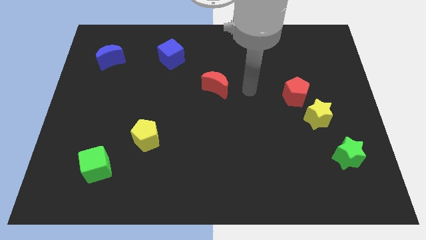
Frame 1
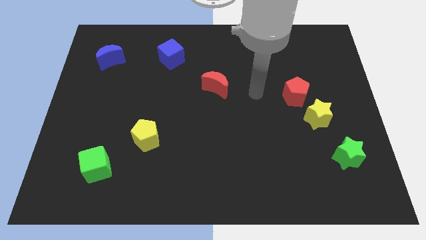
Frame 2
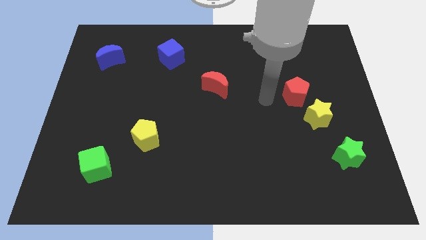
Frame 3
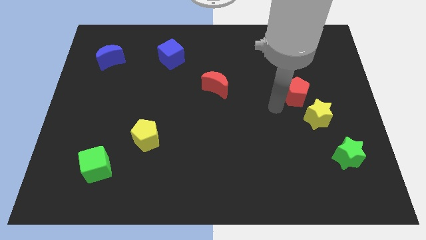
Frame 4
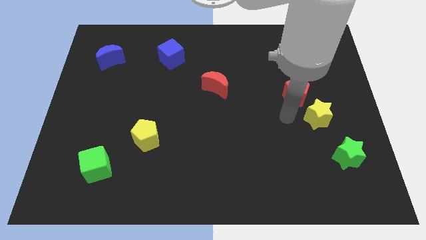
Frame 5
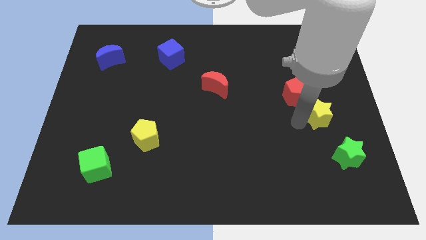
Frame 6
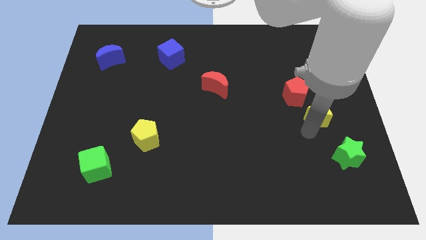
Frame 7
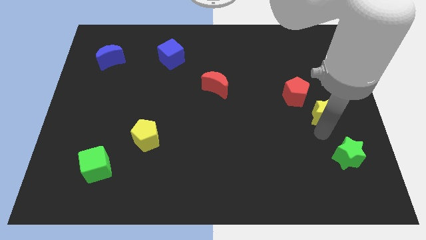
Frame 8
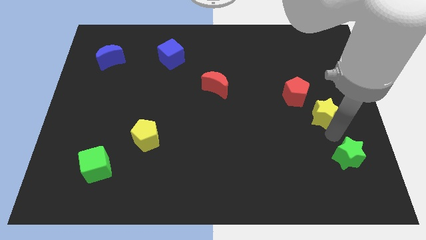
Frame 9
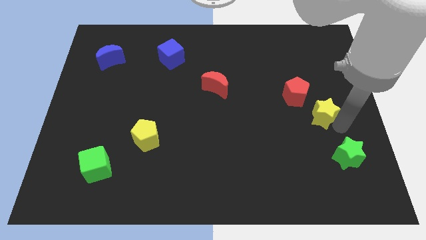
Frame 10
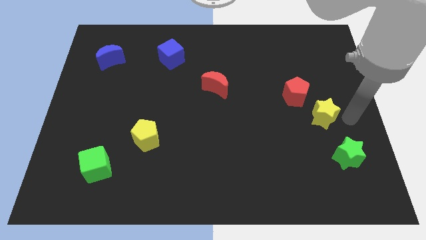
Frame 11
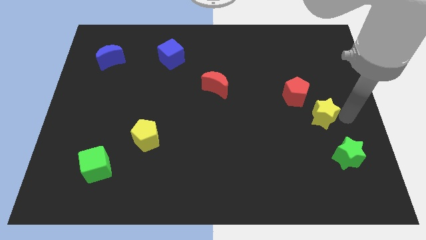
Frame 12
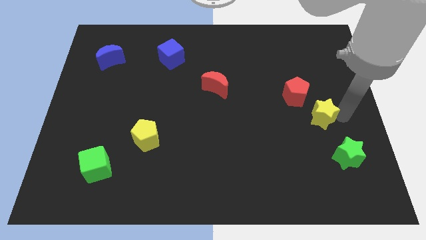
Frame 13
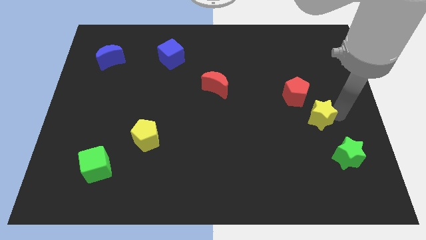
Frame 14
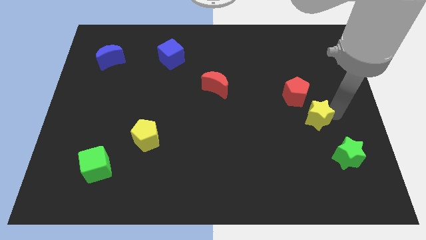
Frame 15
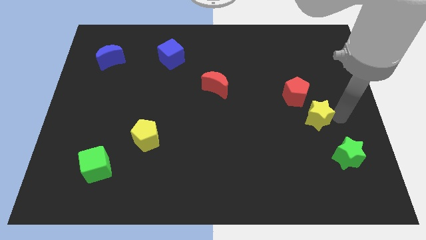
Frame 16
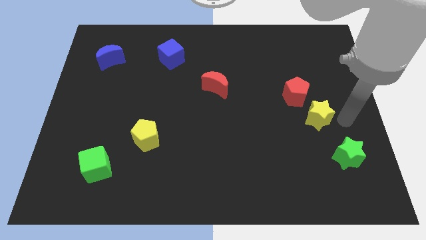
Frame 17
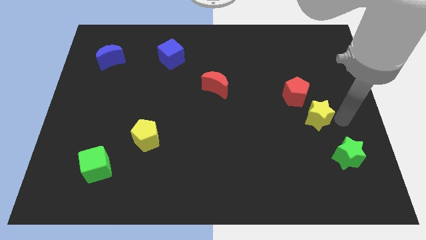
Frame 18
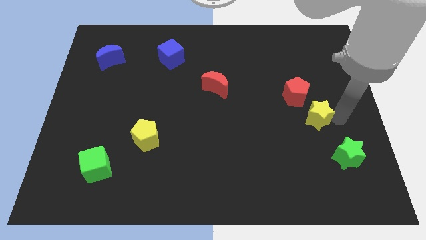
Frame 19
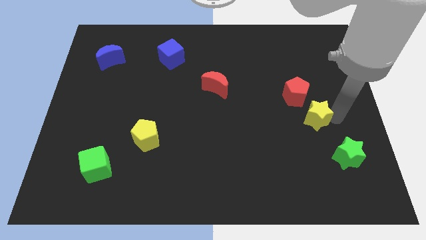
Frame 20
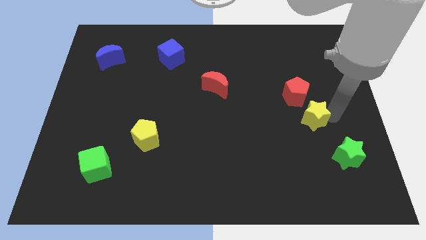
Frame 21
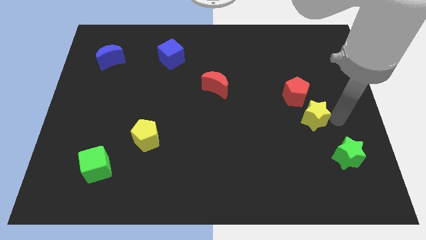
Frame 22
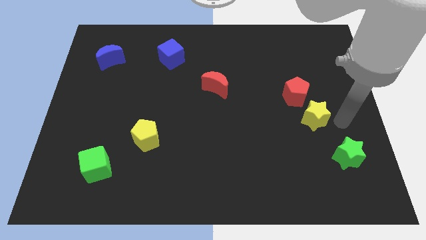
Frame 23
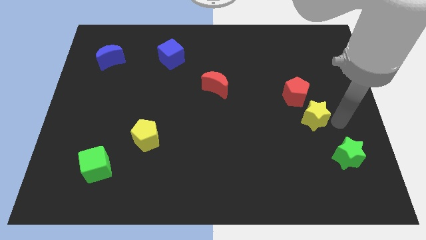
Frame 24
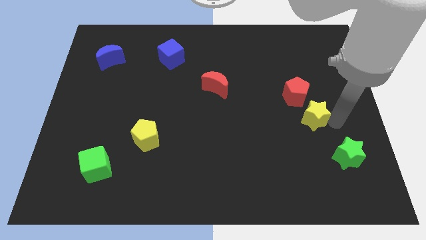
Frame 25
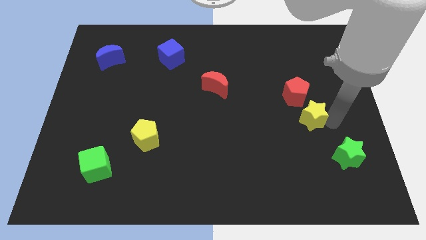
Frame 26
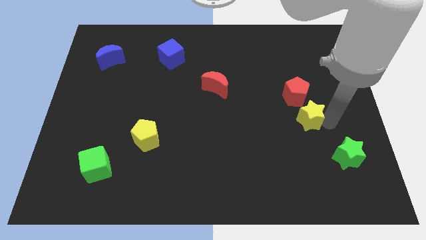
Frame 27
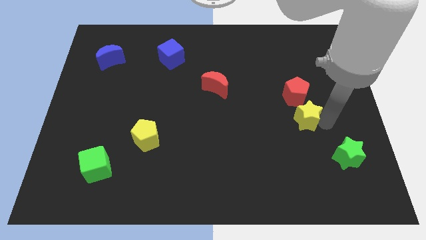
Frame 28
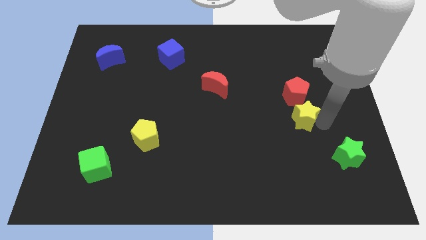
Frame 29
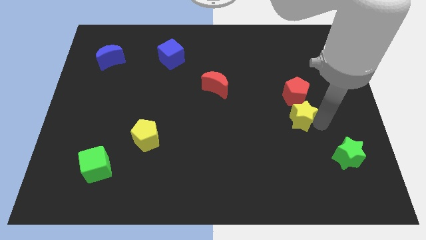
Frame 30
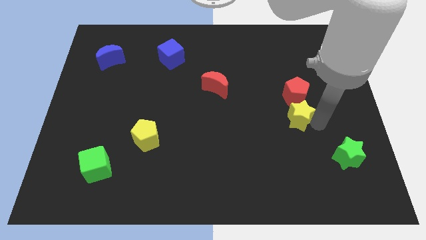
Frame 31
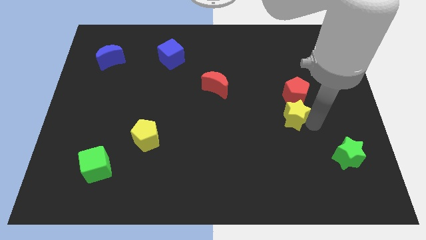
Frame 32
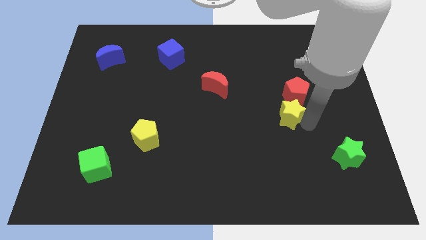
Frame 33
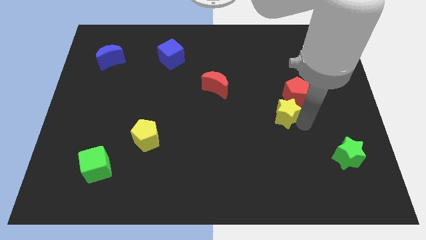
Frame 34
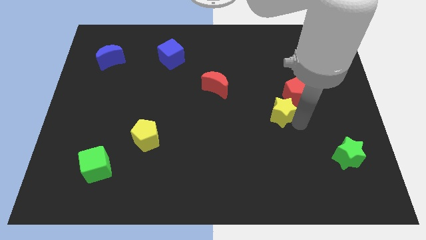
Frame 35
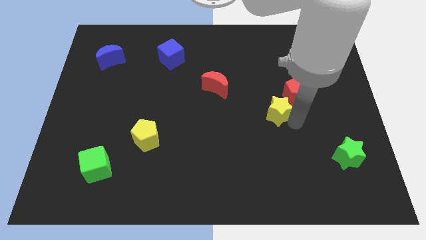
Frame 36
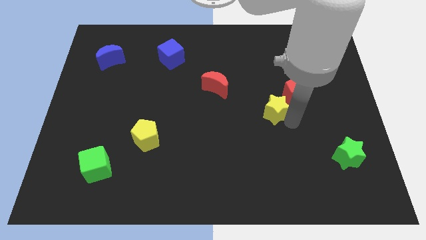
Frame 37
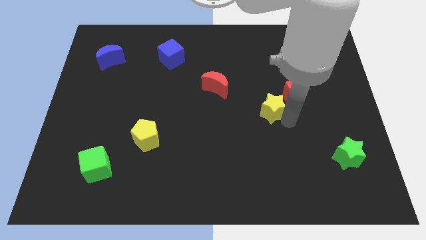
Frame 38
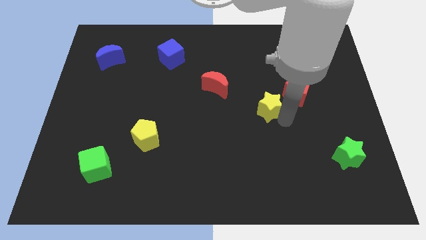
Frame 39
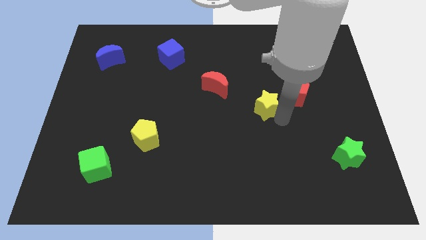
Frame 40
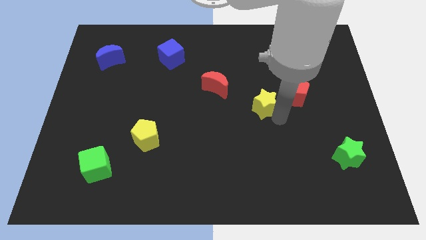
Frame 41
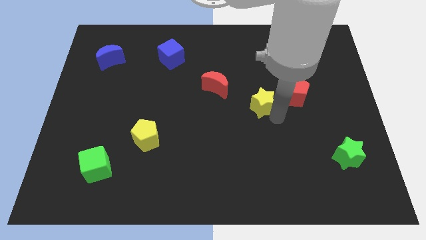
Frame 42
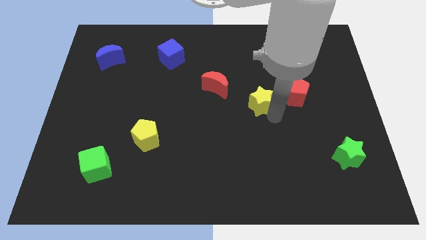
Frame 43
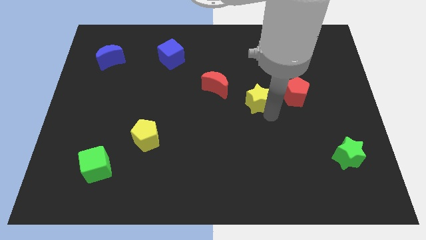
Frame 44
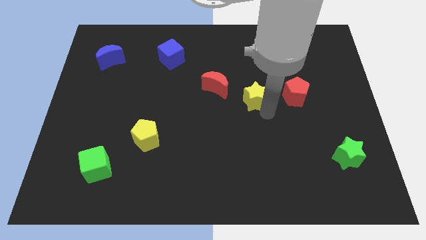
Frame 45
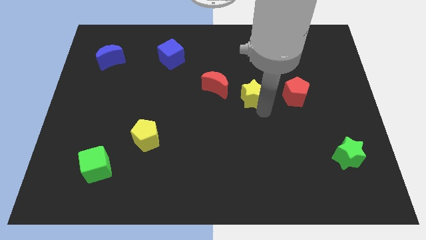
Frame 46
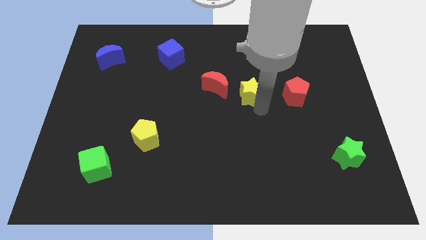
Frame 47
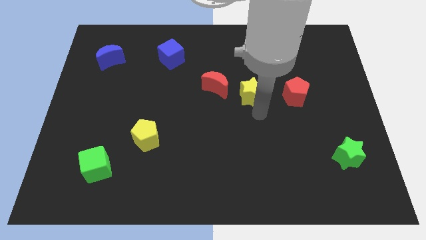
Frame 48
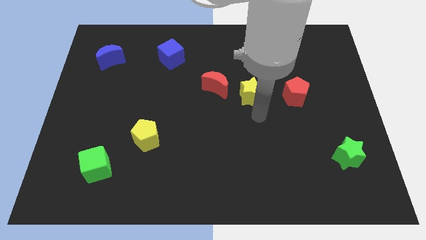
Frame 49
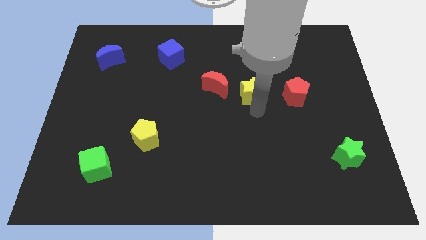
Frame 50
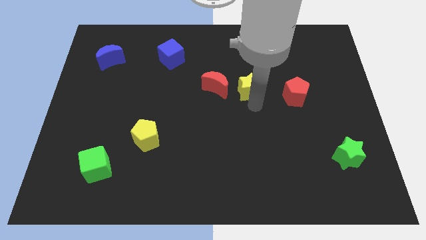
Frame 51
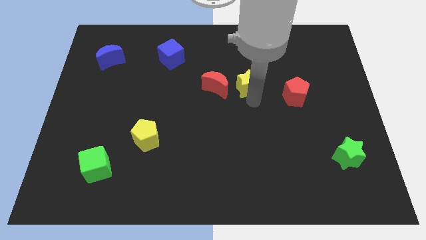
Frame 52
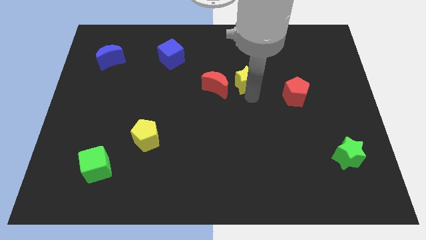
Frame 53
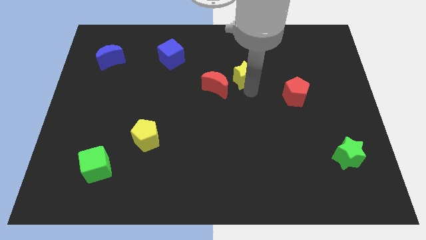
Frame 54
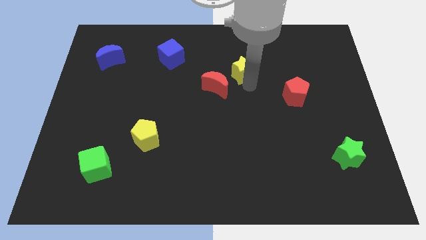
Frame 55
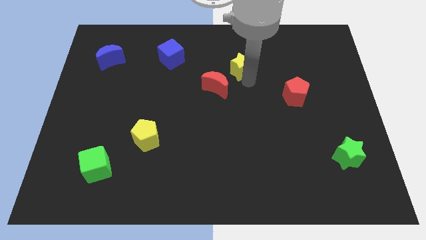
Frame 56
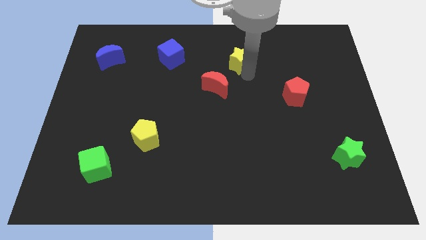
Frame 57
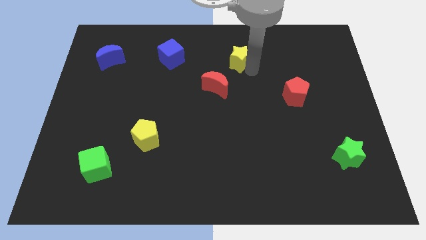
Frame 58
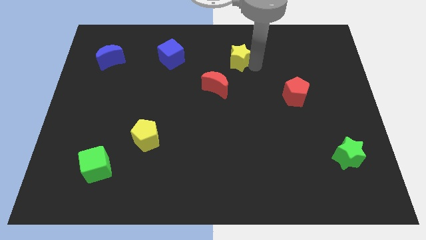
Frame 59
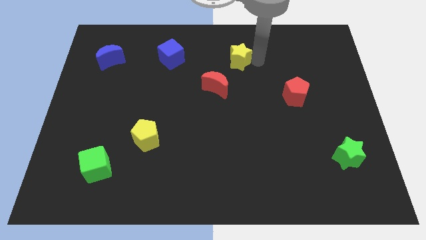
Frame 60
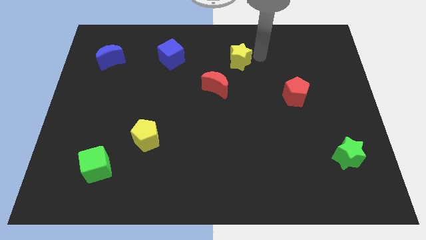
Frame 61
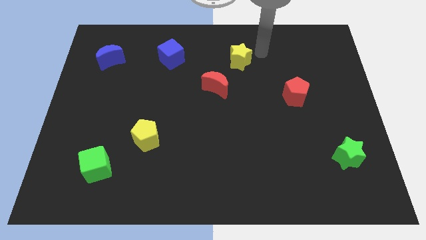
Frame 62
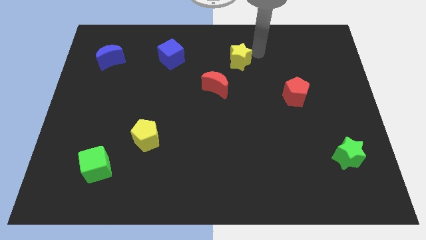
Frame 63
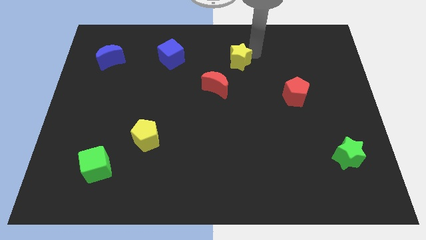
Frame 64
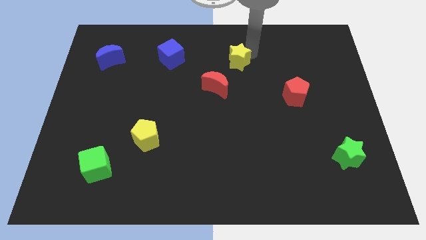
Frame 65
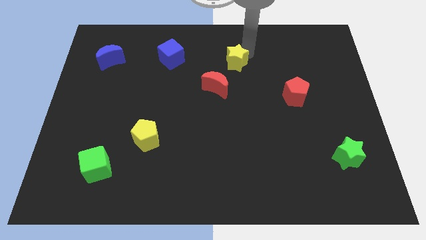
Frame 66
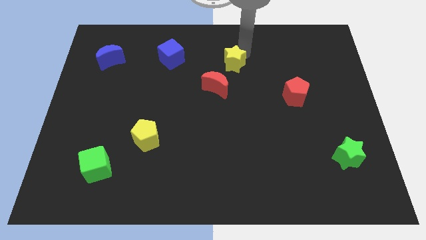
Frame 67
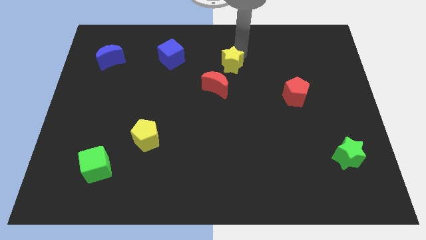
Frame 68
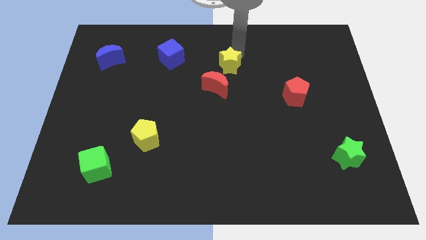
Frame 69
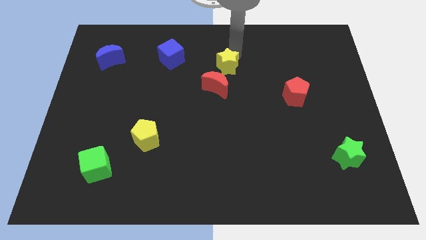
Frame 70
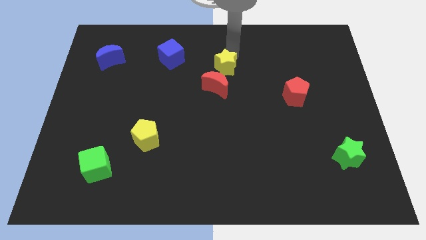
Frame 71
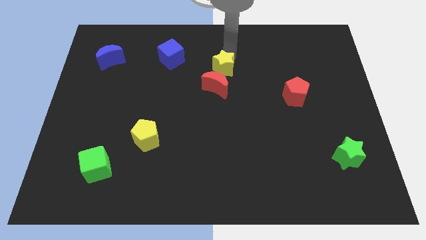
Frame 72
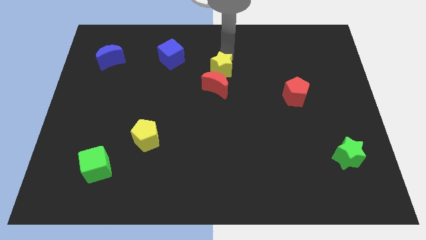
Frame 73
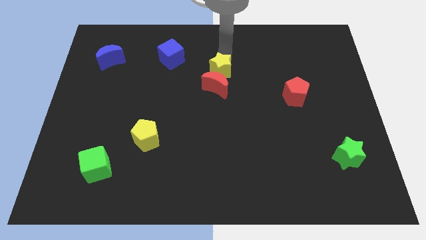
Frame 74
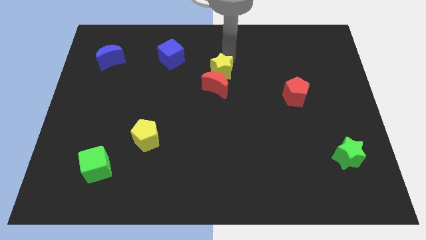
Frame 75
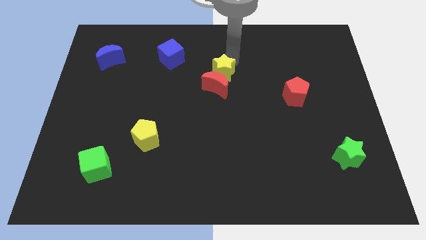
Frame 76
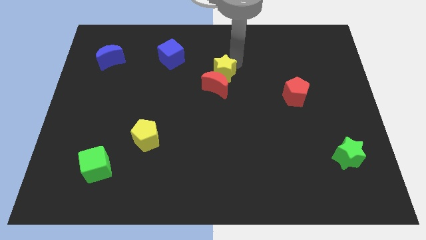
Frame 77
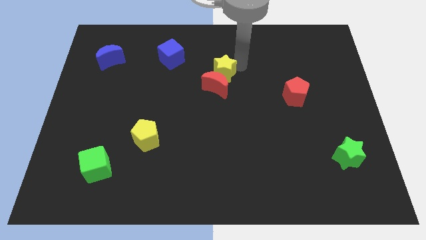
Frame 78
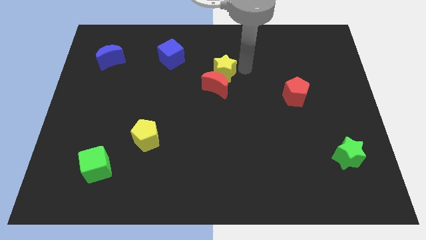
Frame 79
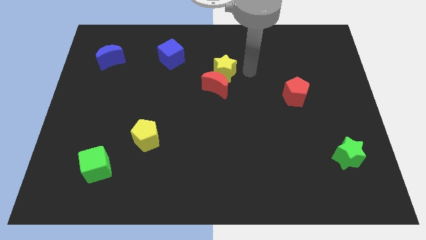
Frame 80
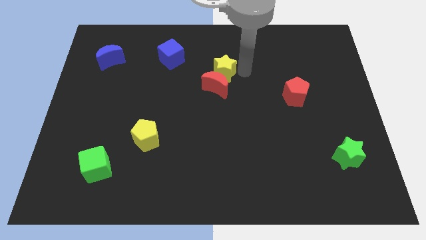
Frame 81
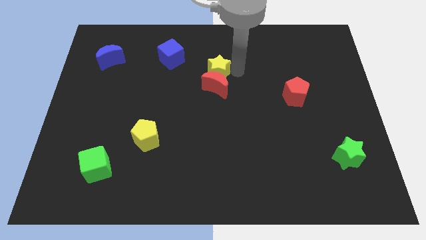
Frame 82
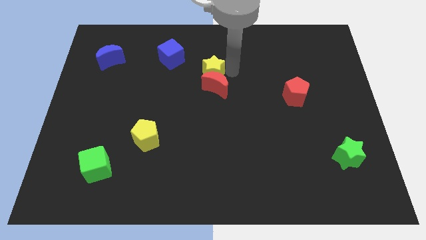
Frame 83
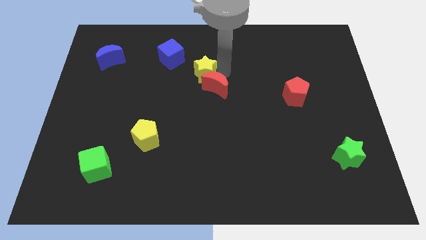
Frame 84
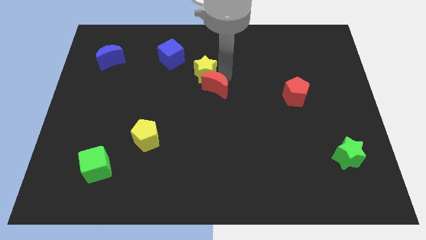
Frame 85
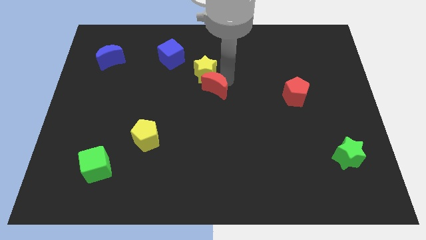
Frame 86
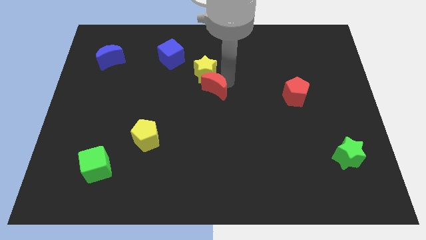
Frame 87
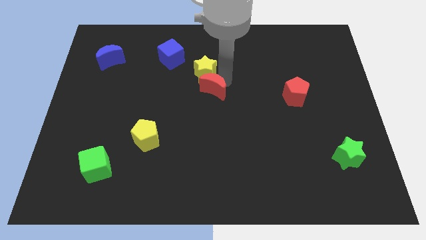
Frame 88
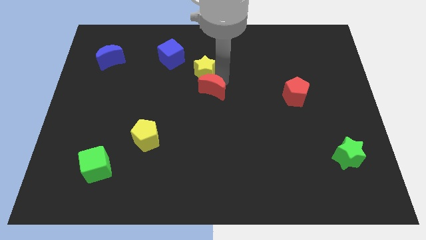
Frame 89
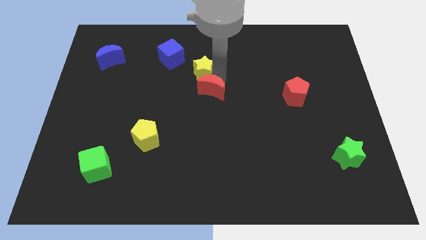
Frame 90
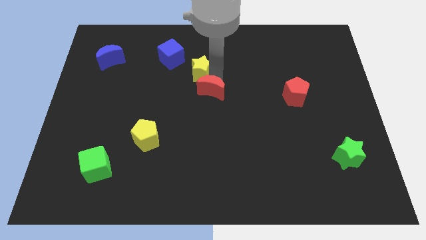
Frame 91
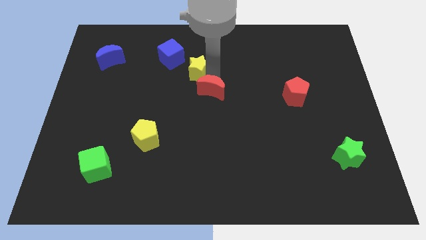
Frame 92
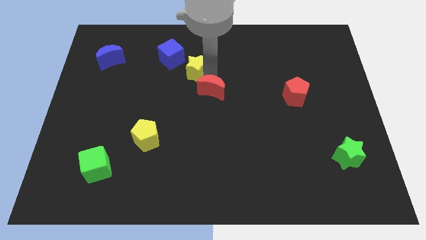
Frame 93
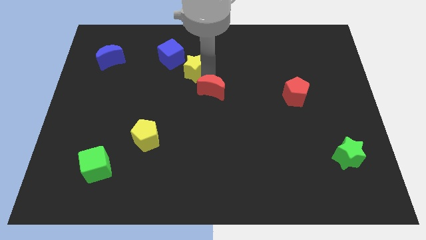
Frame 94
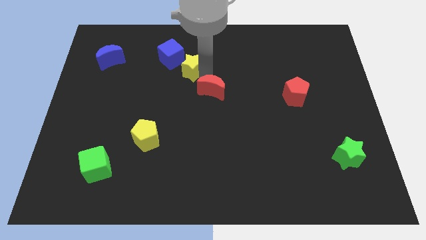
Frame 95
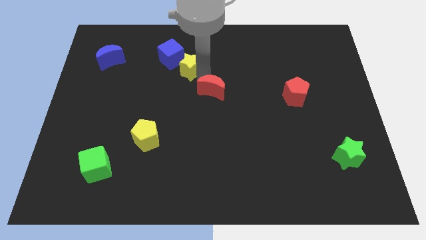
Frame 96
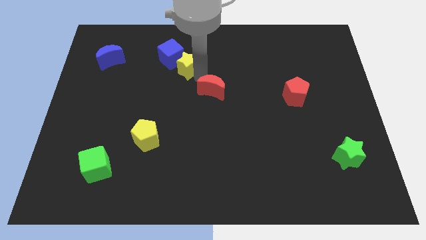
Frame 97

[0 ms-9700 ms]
slide the yellow star to the blue cube
